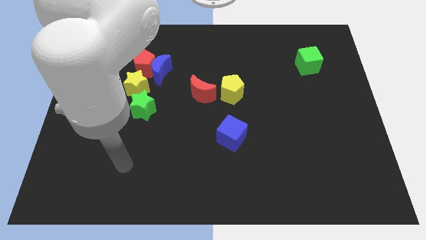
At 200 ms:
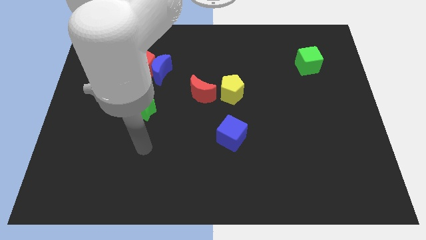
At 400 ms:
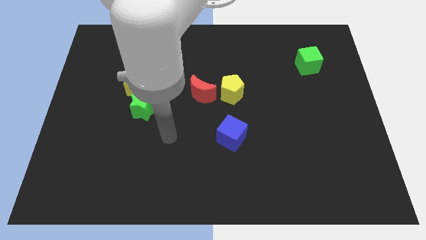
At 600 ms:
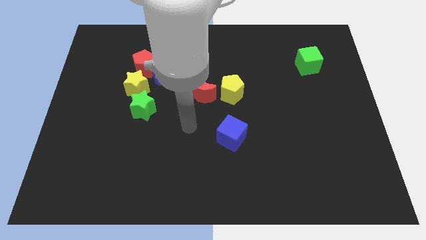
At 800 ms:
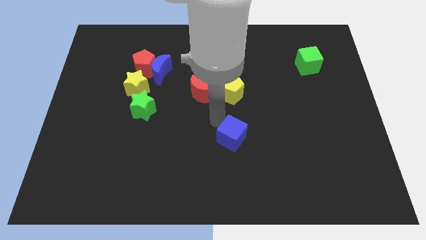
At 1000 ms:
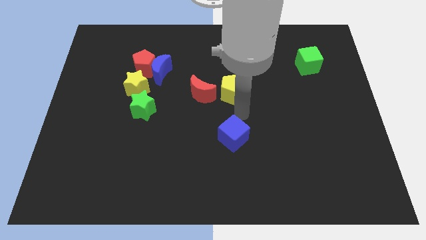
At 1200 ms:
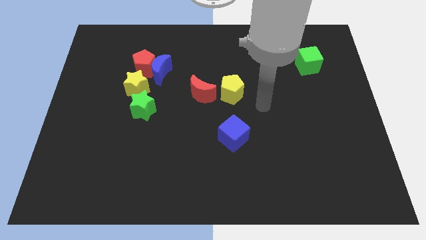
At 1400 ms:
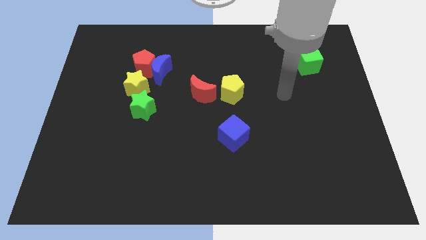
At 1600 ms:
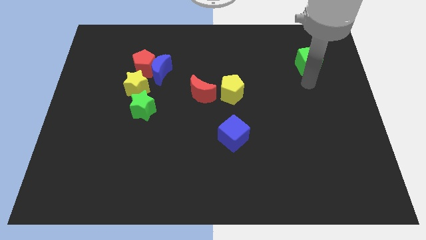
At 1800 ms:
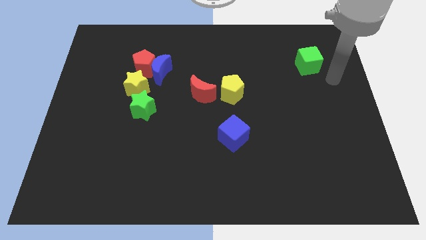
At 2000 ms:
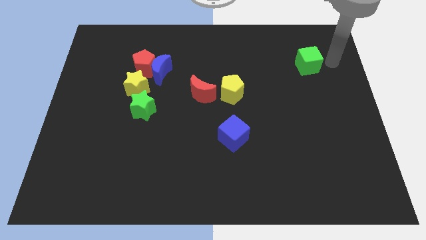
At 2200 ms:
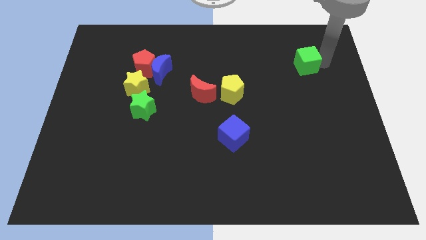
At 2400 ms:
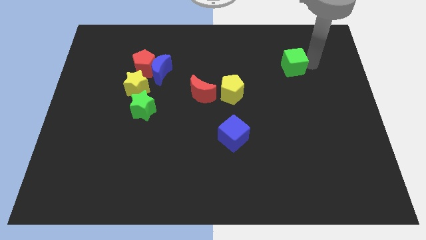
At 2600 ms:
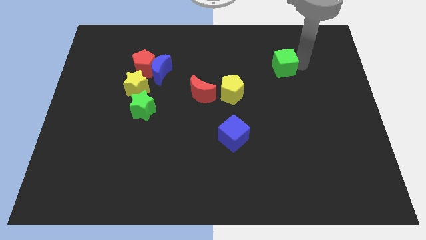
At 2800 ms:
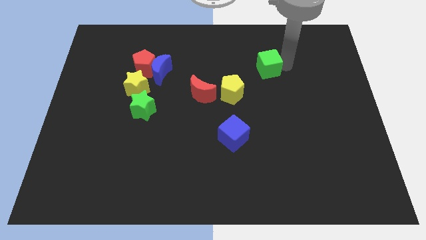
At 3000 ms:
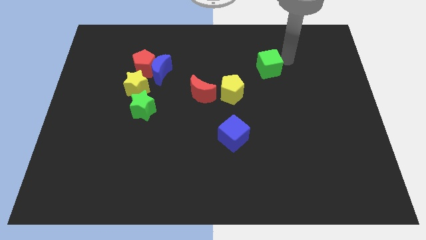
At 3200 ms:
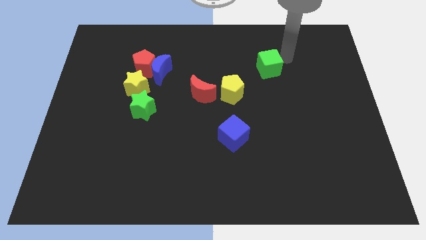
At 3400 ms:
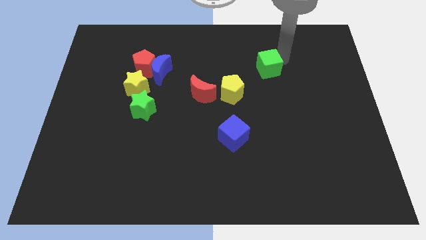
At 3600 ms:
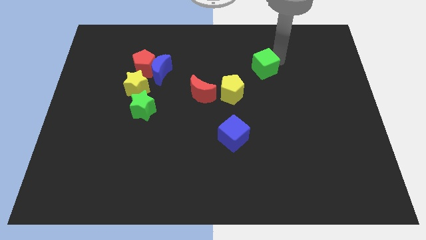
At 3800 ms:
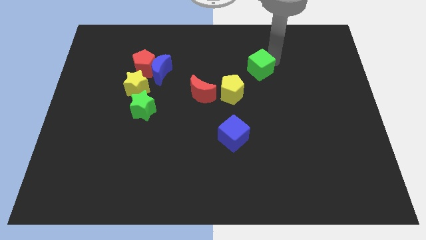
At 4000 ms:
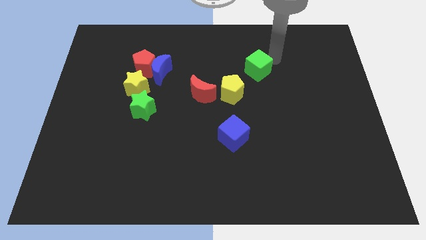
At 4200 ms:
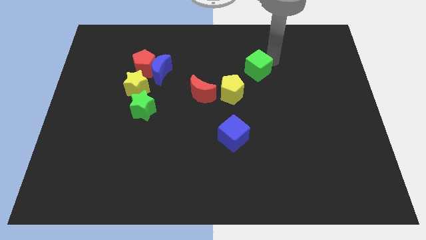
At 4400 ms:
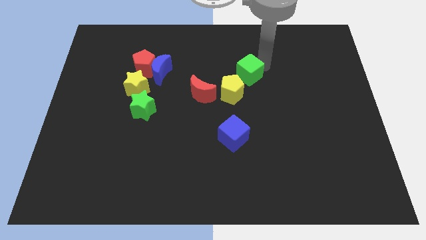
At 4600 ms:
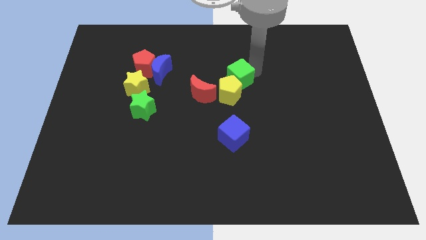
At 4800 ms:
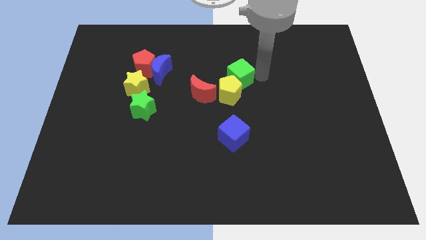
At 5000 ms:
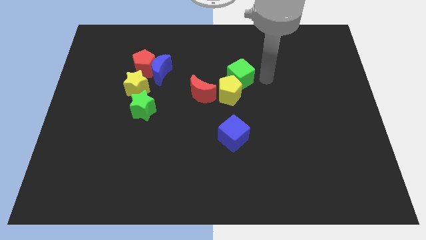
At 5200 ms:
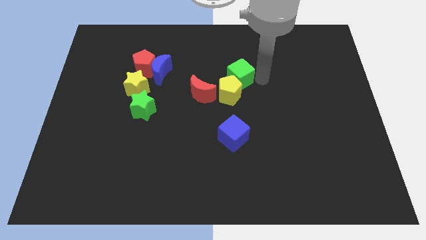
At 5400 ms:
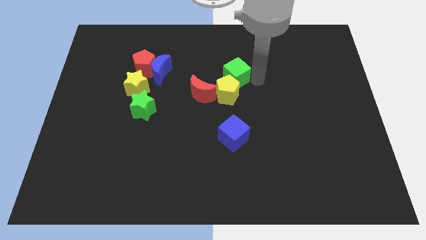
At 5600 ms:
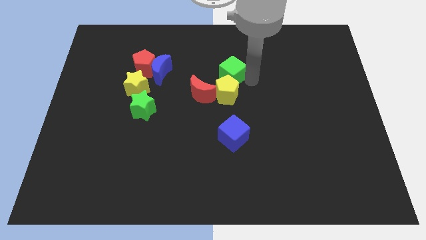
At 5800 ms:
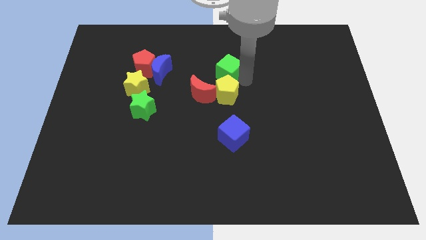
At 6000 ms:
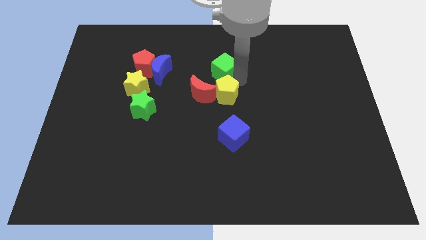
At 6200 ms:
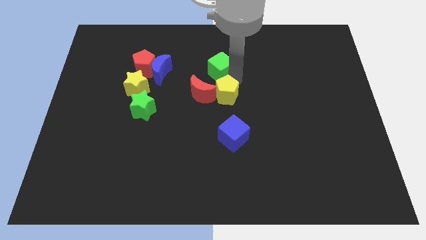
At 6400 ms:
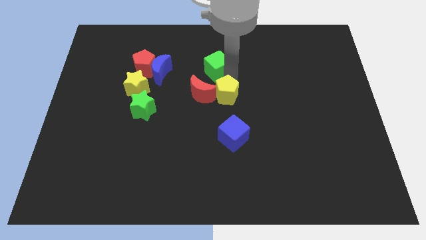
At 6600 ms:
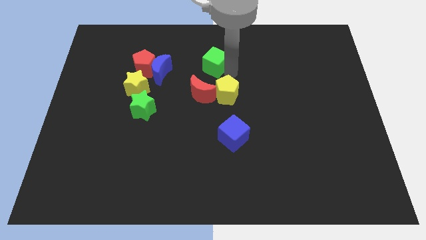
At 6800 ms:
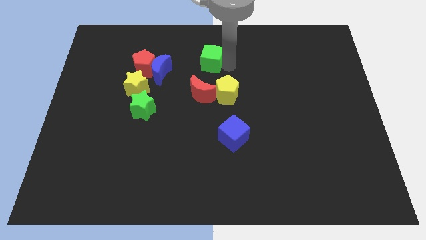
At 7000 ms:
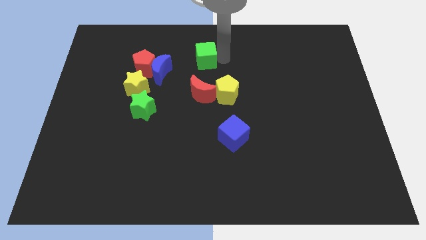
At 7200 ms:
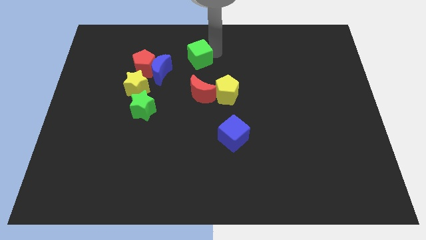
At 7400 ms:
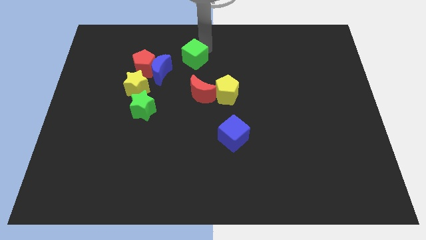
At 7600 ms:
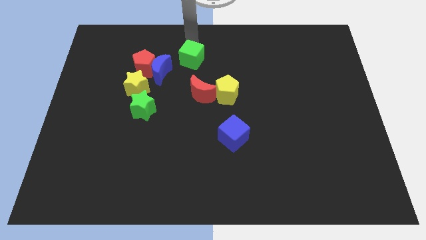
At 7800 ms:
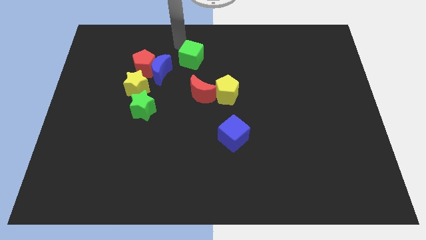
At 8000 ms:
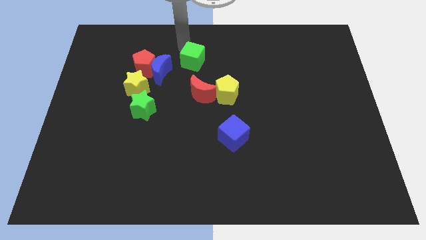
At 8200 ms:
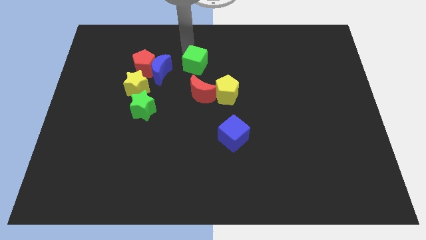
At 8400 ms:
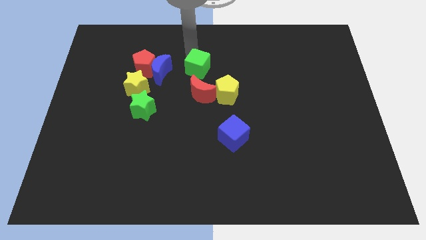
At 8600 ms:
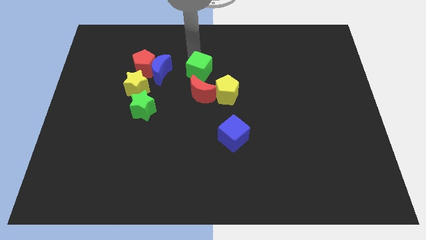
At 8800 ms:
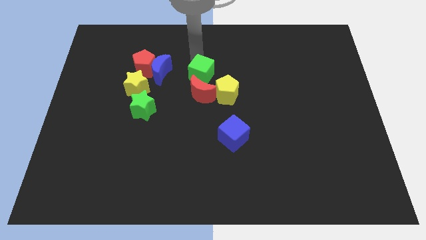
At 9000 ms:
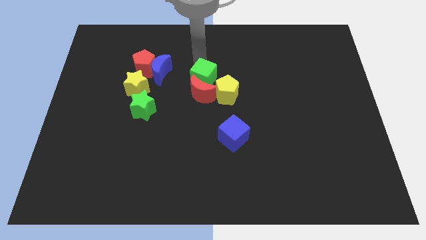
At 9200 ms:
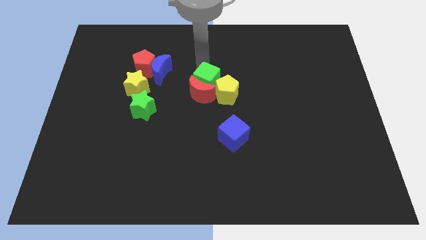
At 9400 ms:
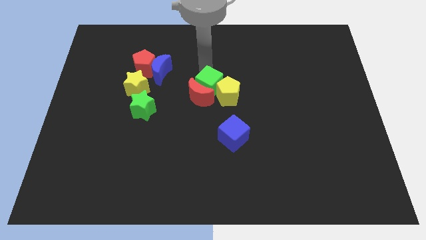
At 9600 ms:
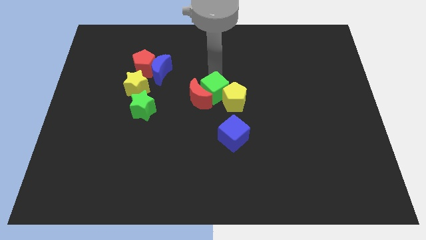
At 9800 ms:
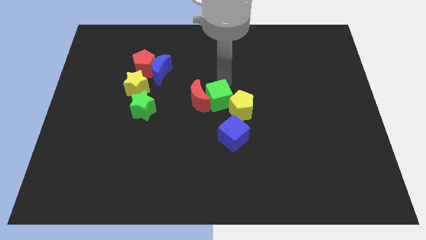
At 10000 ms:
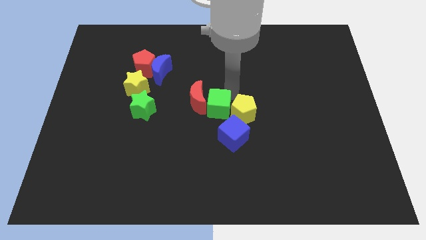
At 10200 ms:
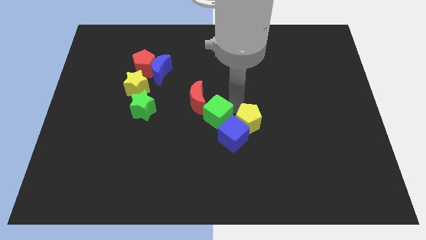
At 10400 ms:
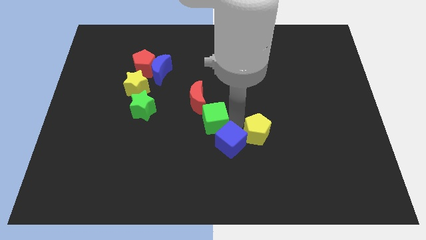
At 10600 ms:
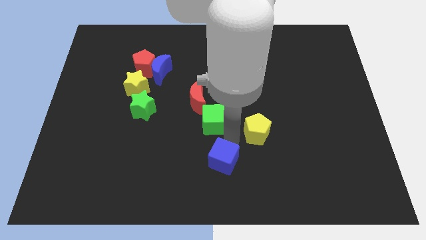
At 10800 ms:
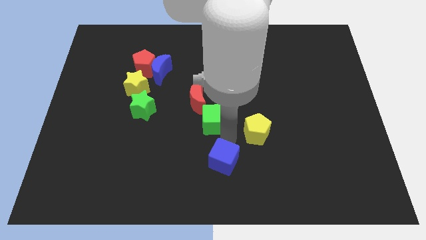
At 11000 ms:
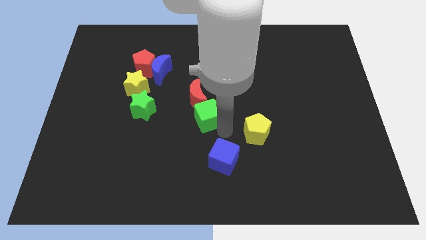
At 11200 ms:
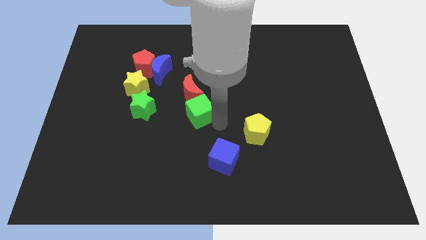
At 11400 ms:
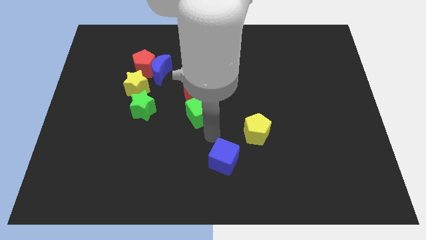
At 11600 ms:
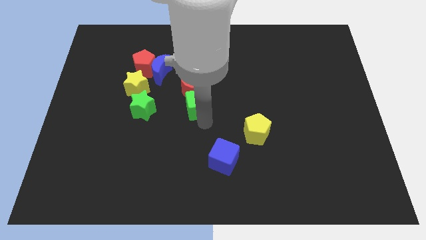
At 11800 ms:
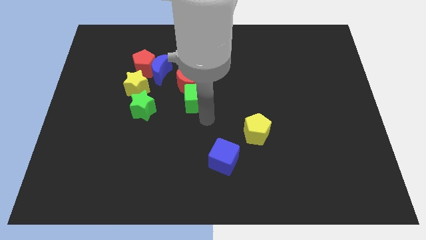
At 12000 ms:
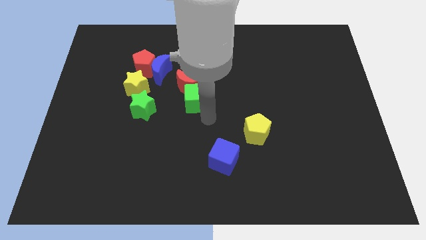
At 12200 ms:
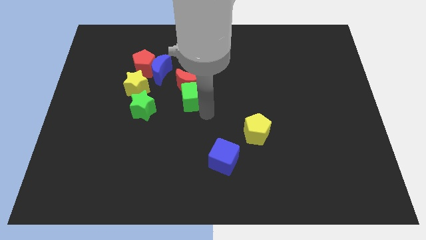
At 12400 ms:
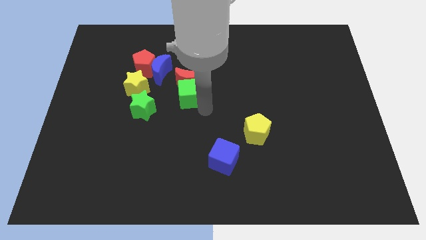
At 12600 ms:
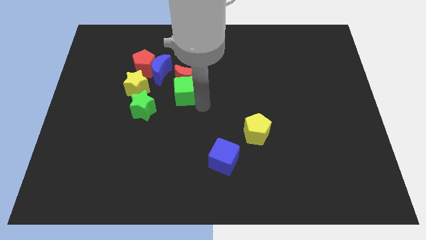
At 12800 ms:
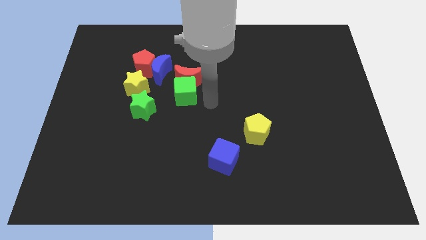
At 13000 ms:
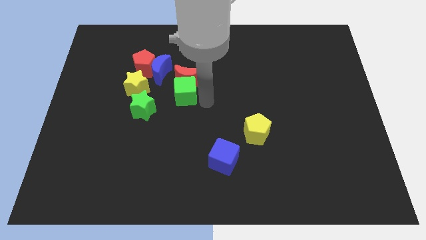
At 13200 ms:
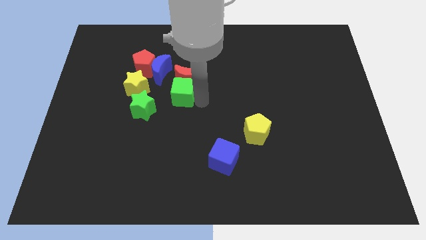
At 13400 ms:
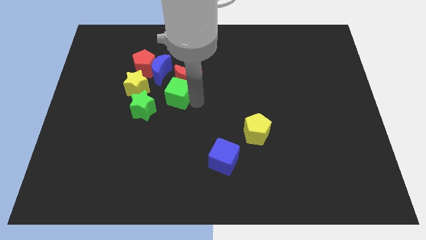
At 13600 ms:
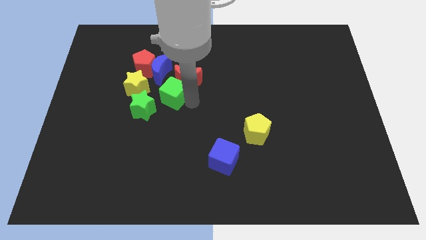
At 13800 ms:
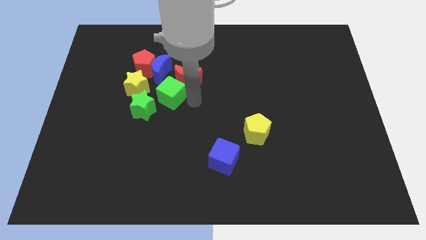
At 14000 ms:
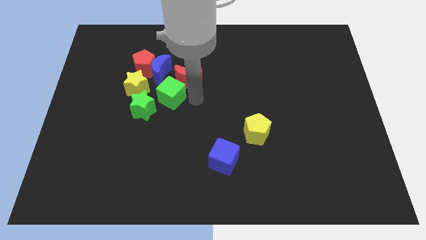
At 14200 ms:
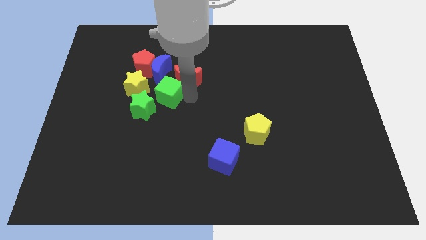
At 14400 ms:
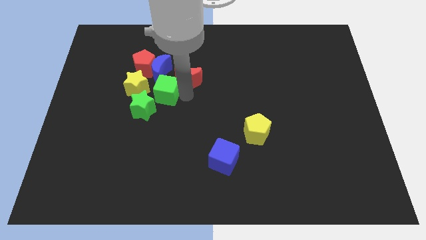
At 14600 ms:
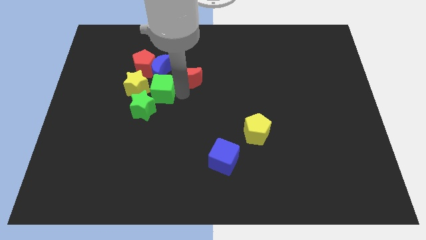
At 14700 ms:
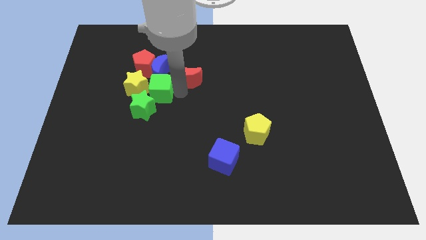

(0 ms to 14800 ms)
move the green cube towards the yellow star
